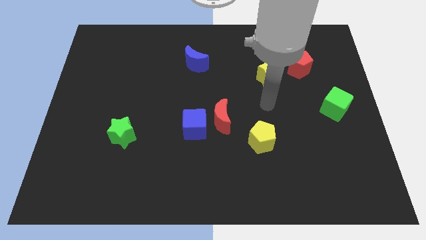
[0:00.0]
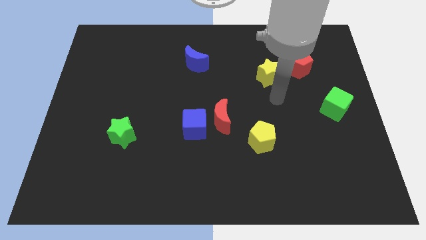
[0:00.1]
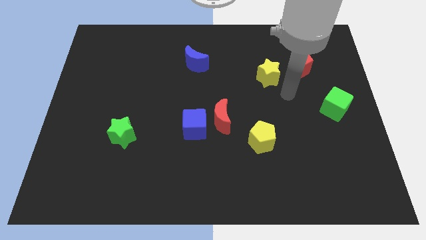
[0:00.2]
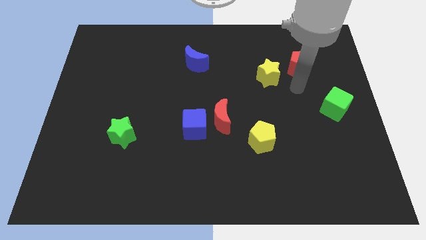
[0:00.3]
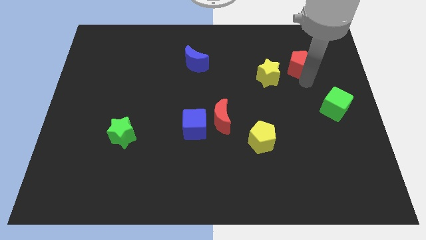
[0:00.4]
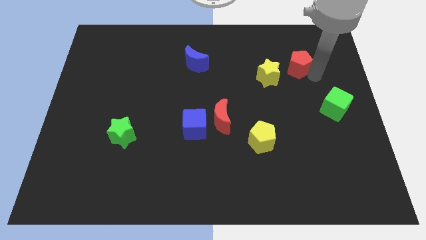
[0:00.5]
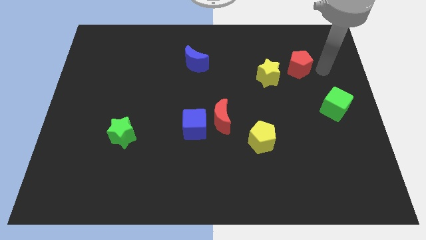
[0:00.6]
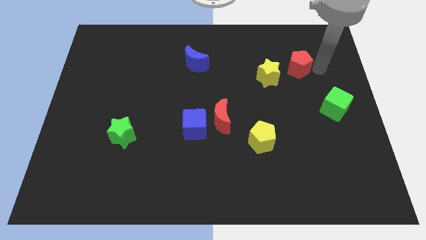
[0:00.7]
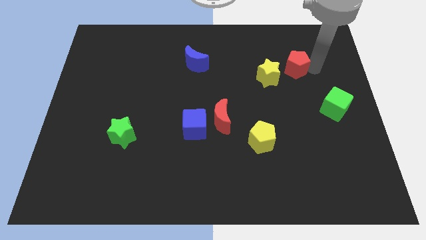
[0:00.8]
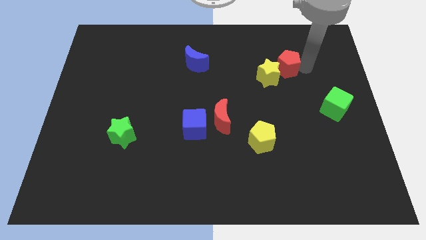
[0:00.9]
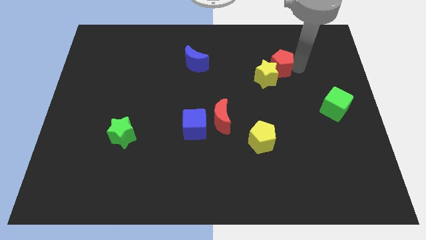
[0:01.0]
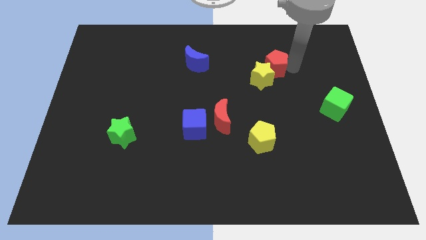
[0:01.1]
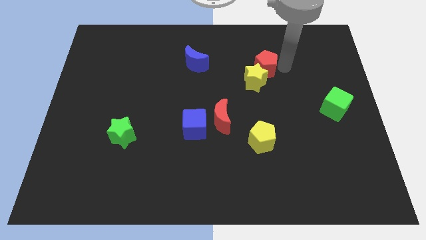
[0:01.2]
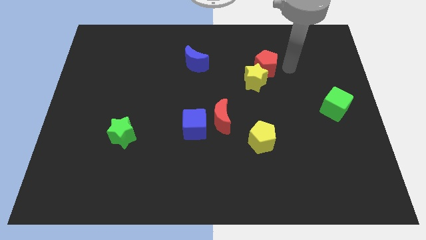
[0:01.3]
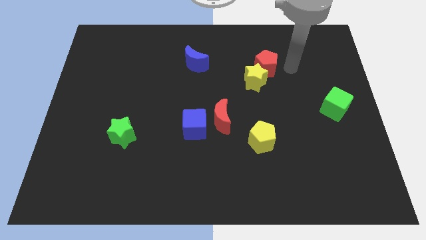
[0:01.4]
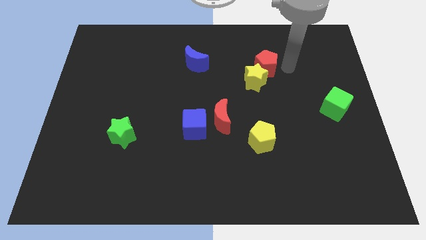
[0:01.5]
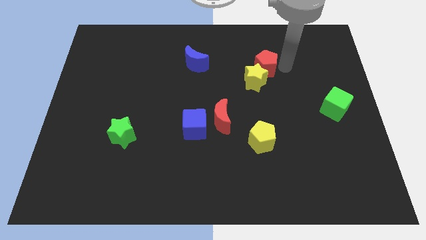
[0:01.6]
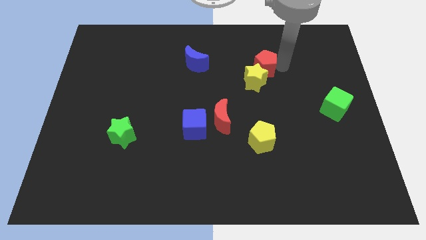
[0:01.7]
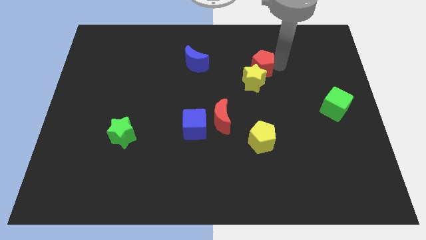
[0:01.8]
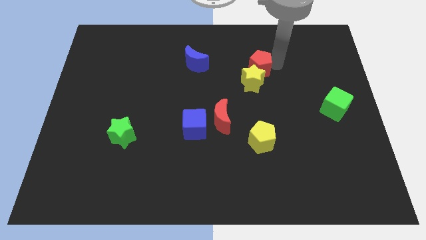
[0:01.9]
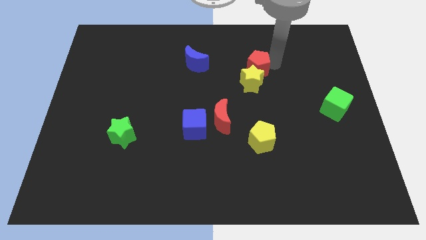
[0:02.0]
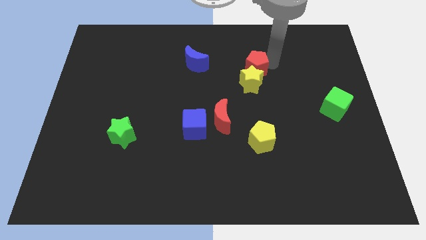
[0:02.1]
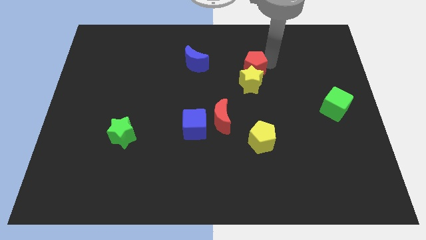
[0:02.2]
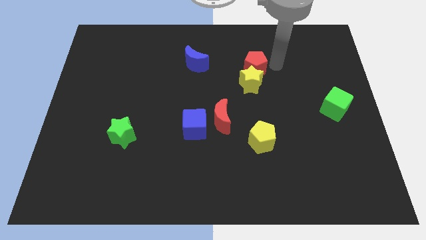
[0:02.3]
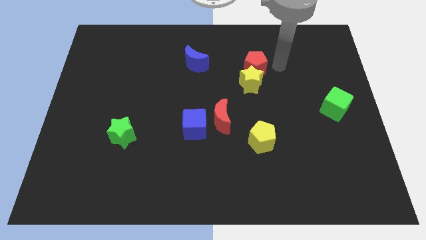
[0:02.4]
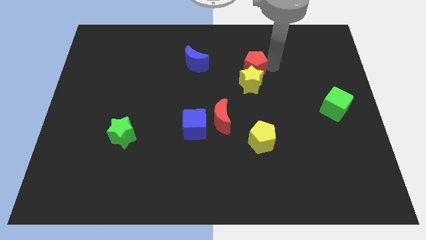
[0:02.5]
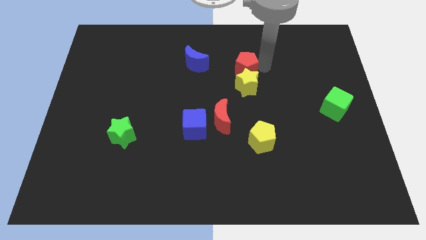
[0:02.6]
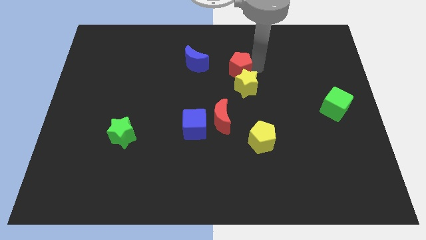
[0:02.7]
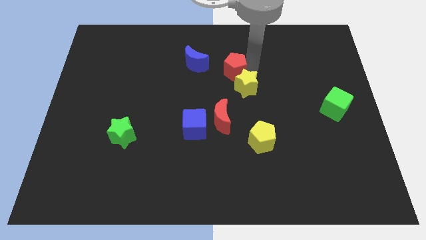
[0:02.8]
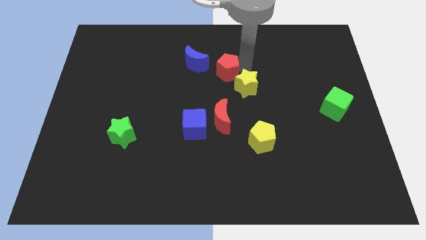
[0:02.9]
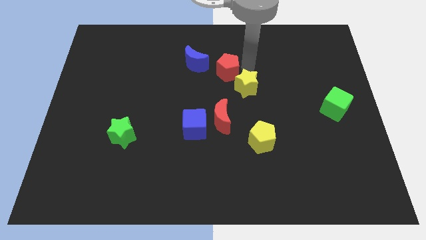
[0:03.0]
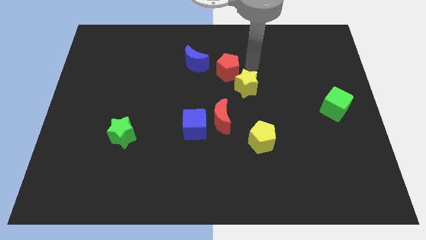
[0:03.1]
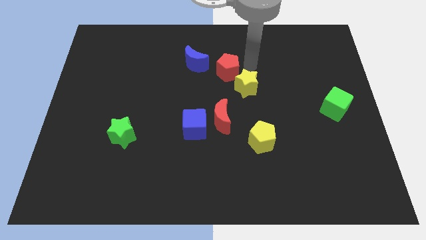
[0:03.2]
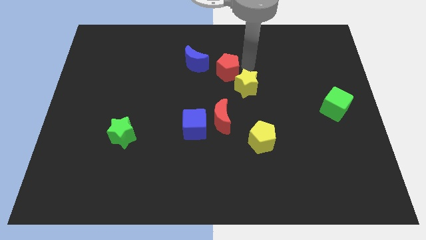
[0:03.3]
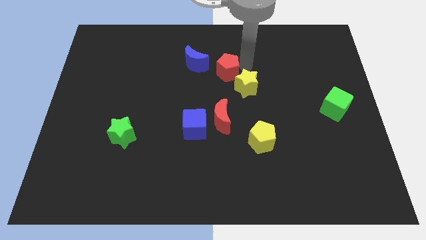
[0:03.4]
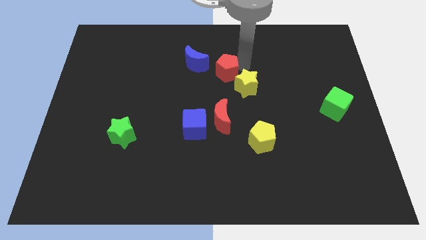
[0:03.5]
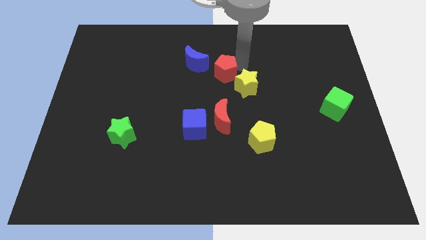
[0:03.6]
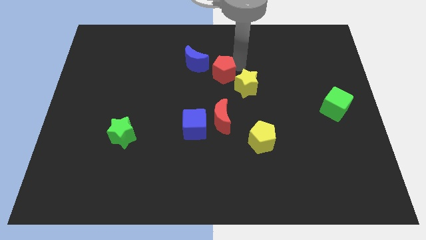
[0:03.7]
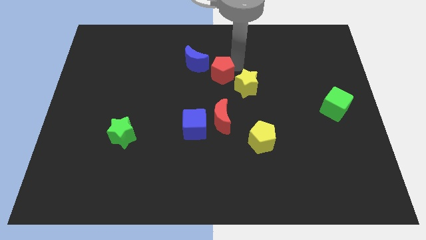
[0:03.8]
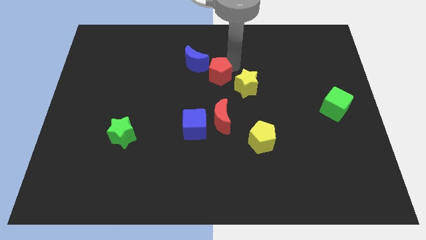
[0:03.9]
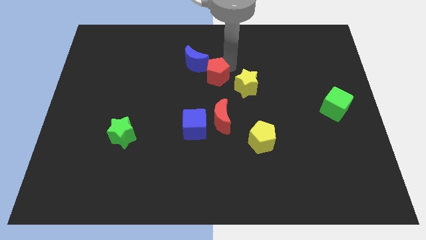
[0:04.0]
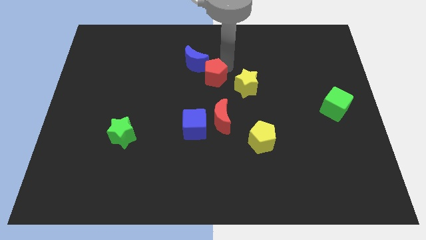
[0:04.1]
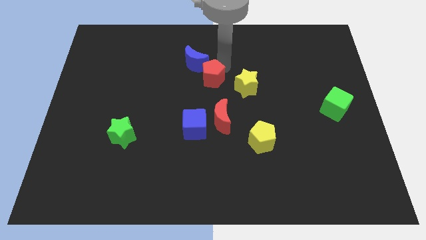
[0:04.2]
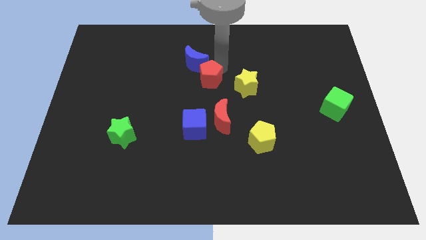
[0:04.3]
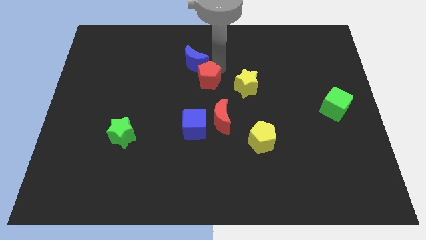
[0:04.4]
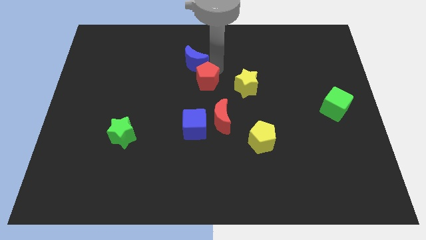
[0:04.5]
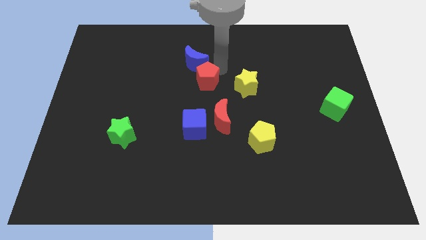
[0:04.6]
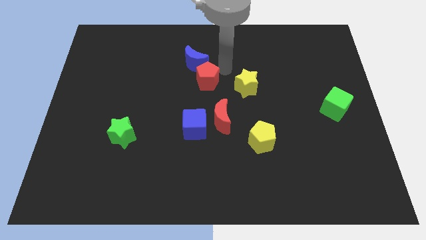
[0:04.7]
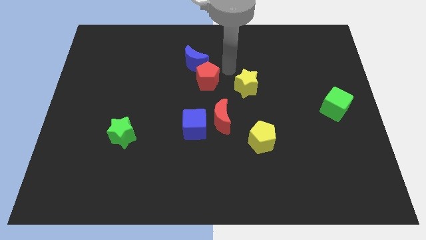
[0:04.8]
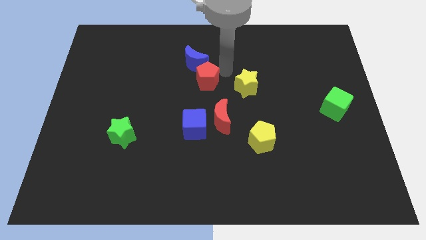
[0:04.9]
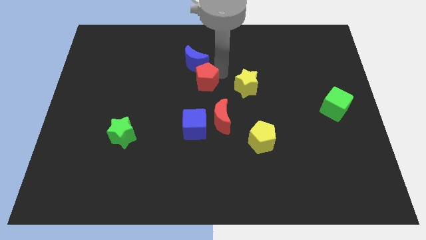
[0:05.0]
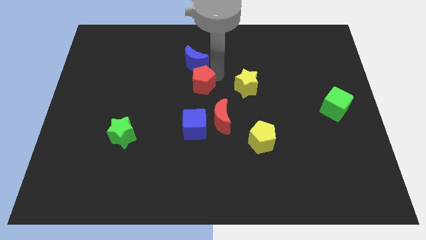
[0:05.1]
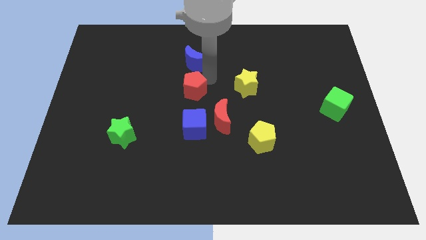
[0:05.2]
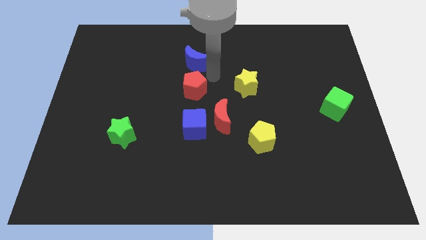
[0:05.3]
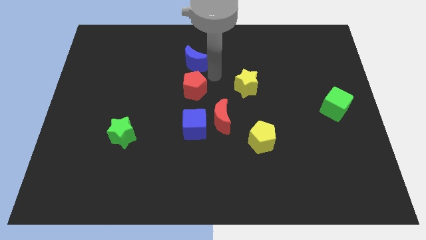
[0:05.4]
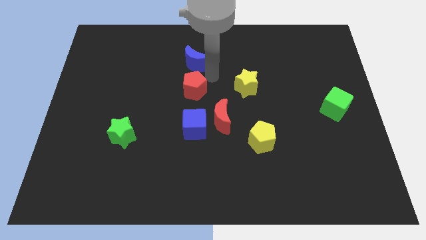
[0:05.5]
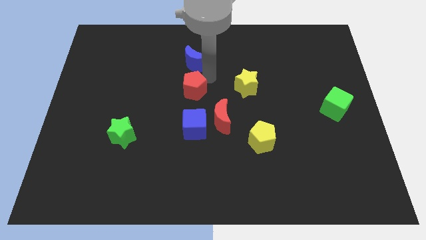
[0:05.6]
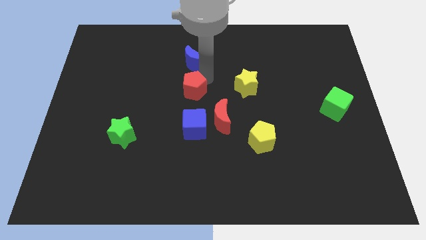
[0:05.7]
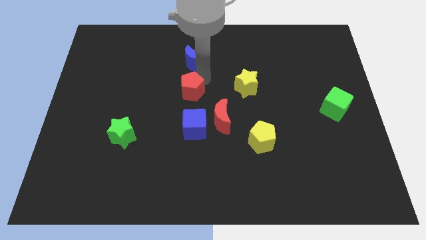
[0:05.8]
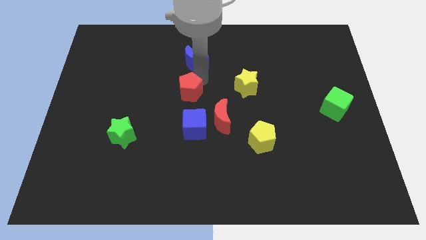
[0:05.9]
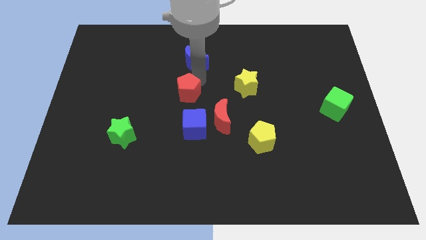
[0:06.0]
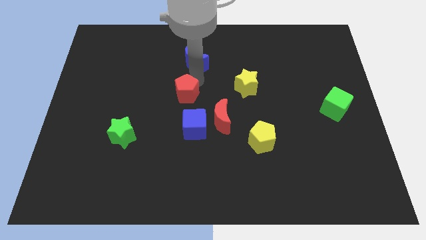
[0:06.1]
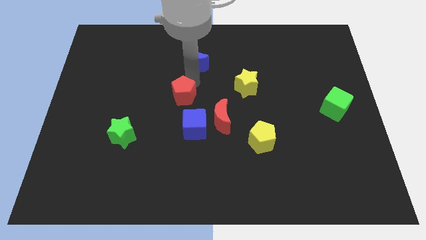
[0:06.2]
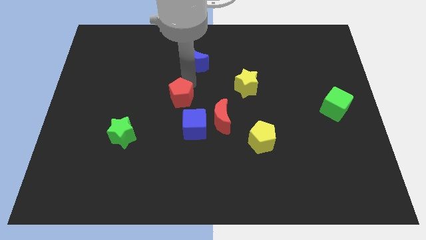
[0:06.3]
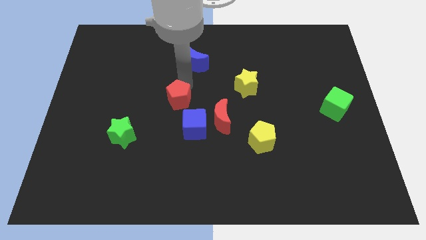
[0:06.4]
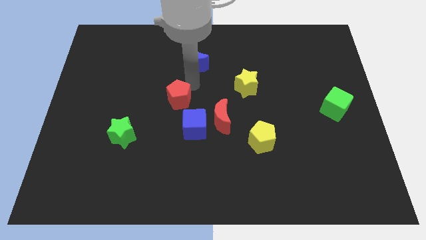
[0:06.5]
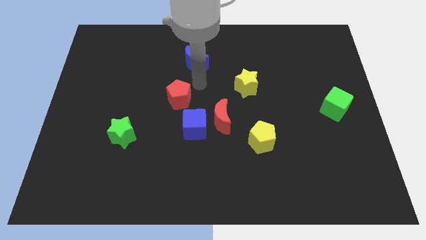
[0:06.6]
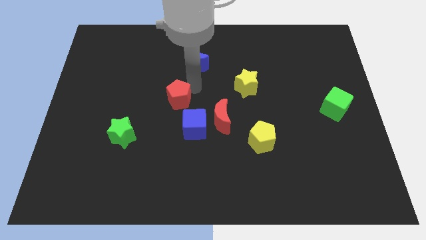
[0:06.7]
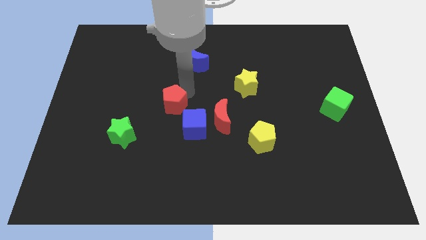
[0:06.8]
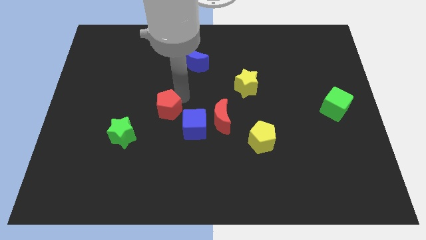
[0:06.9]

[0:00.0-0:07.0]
move the red pentagon diagonally up and to the right of the green star

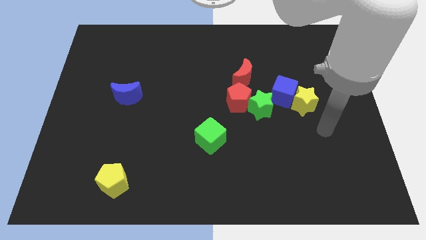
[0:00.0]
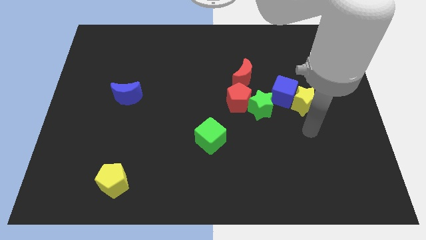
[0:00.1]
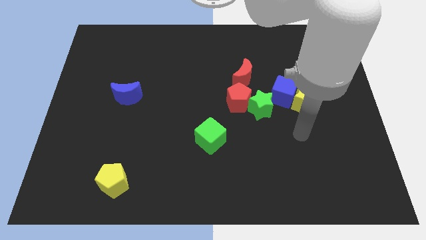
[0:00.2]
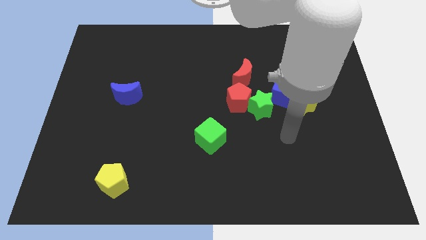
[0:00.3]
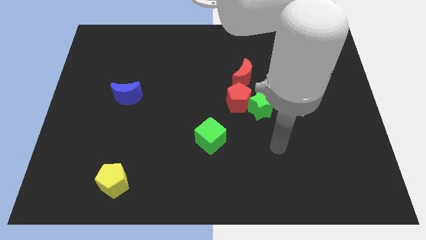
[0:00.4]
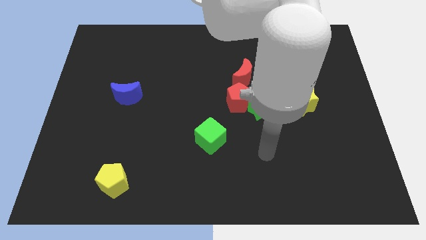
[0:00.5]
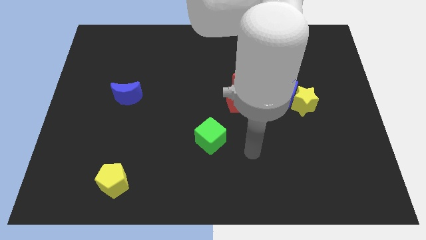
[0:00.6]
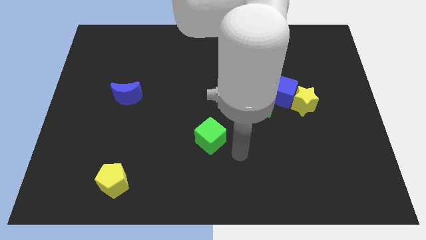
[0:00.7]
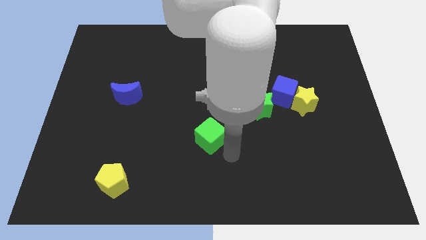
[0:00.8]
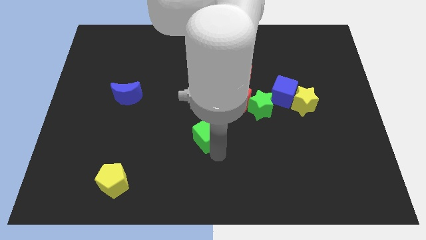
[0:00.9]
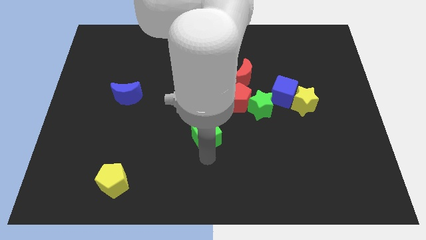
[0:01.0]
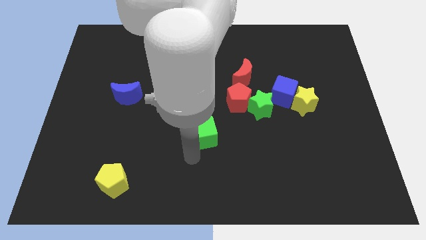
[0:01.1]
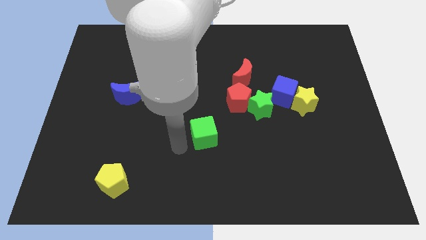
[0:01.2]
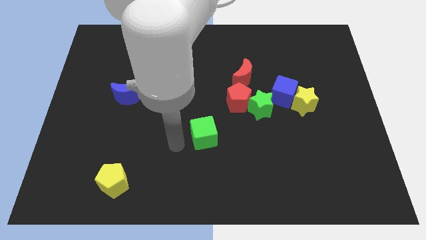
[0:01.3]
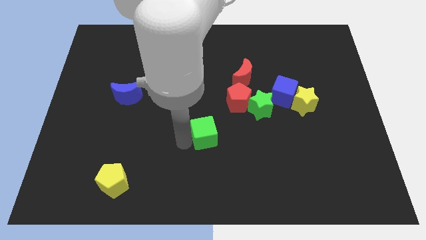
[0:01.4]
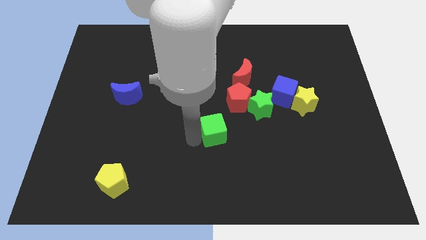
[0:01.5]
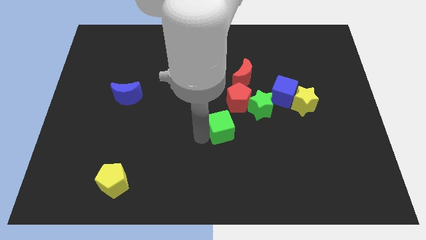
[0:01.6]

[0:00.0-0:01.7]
move the green cube to the bottom left side of the green star
